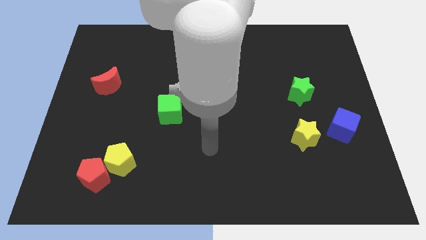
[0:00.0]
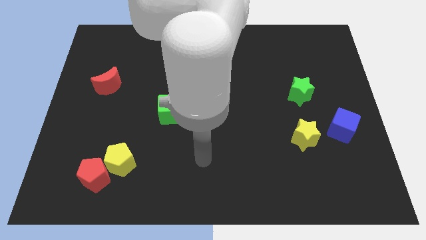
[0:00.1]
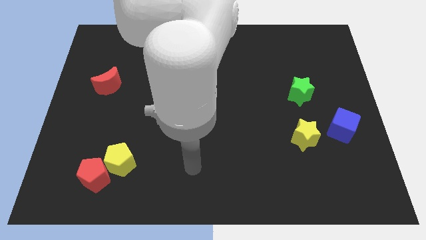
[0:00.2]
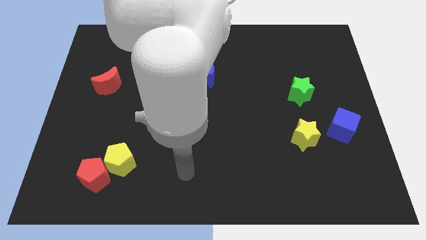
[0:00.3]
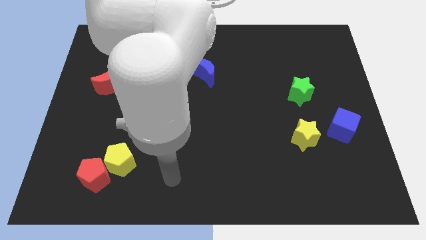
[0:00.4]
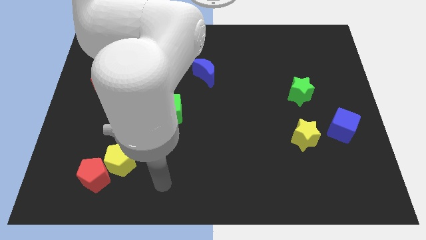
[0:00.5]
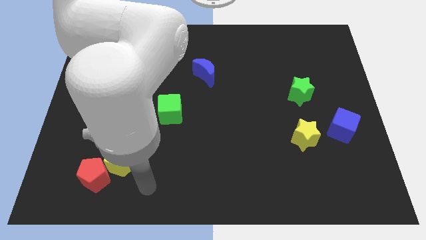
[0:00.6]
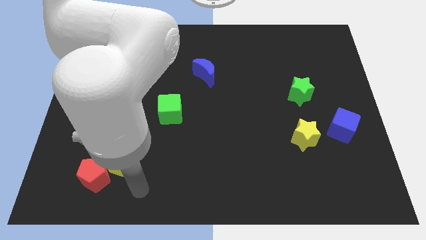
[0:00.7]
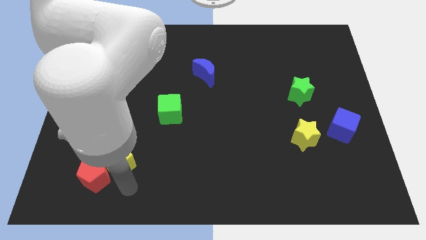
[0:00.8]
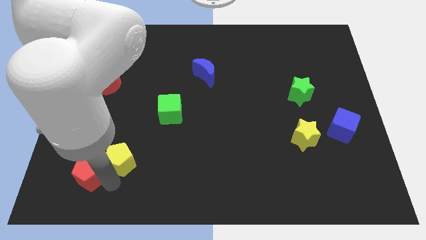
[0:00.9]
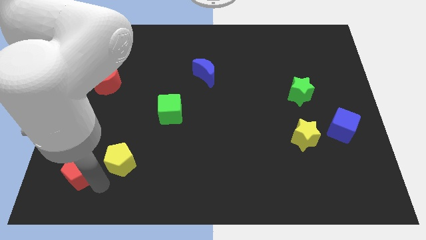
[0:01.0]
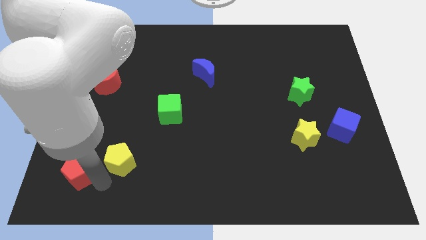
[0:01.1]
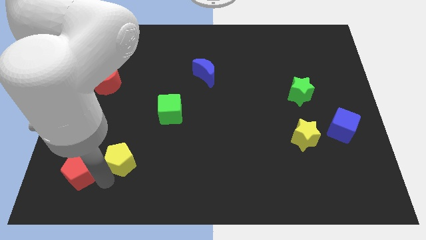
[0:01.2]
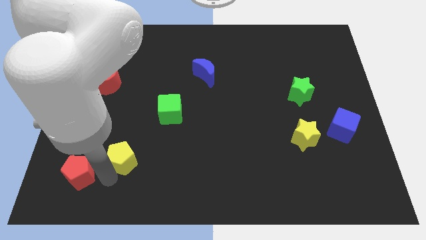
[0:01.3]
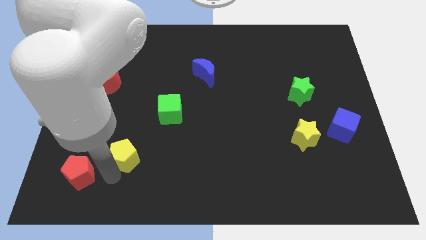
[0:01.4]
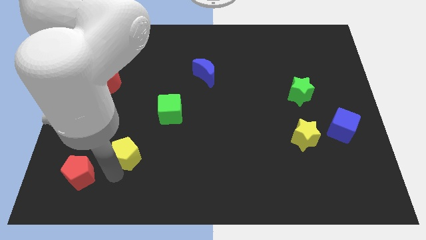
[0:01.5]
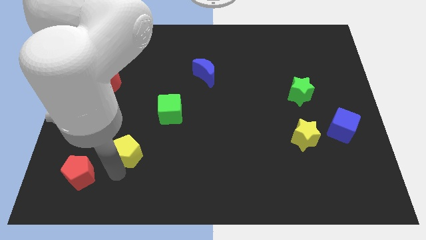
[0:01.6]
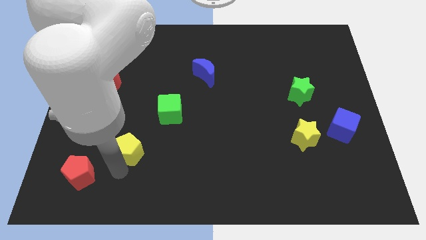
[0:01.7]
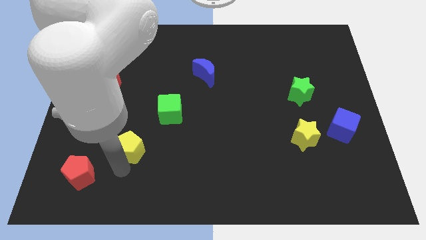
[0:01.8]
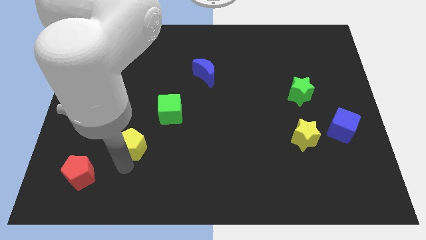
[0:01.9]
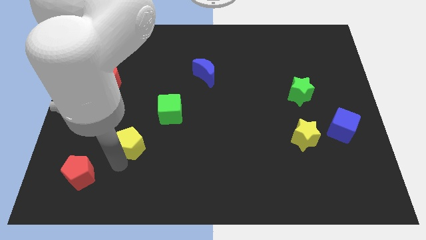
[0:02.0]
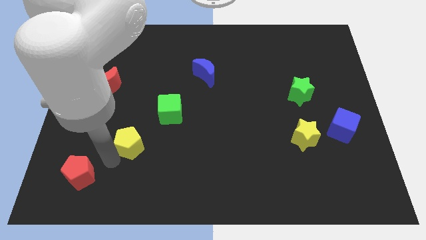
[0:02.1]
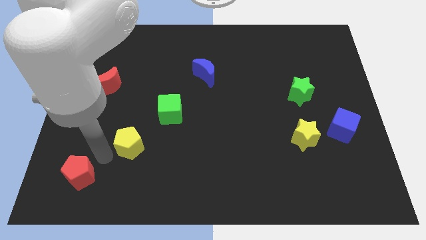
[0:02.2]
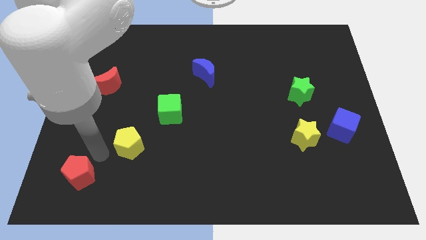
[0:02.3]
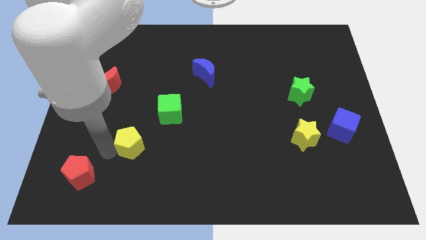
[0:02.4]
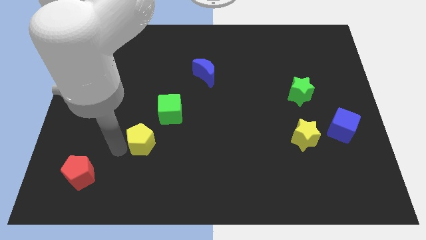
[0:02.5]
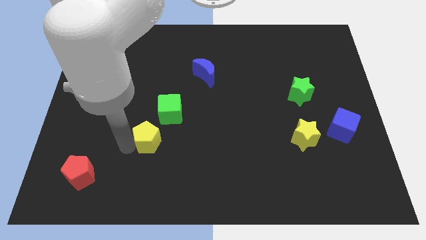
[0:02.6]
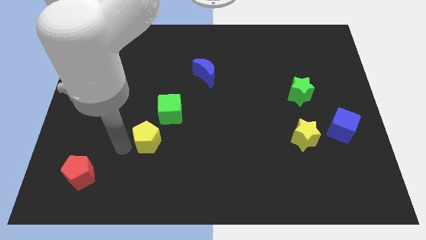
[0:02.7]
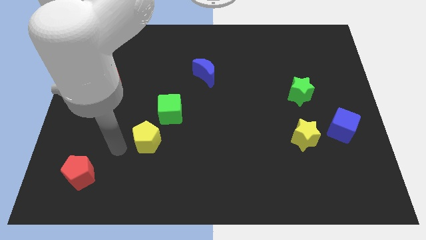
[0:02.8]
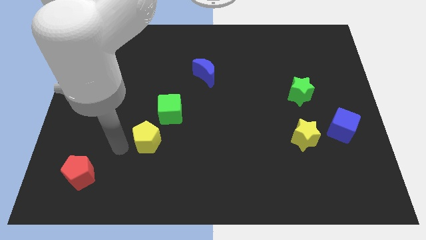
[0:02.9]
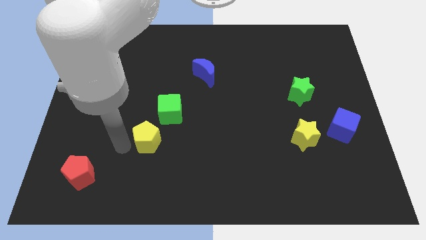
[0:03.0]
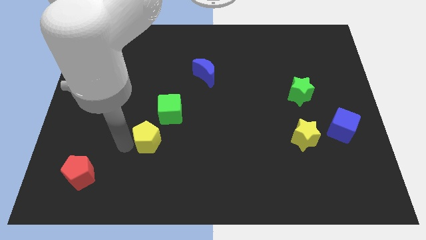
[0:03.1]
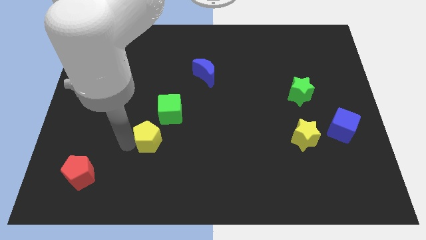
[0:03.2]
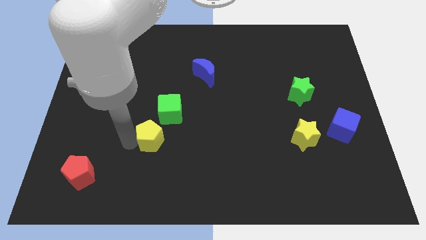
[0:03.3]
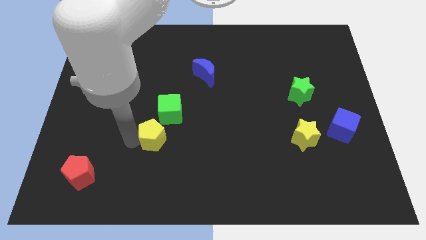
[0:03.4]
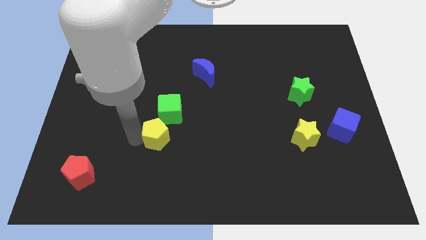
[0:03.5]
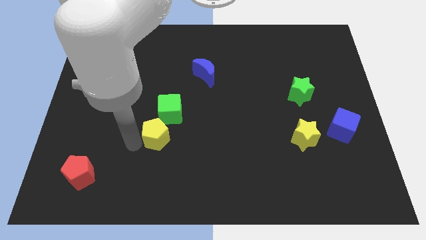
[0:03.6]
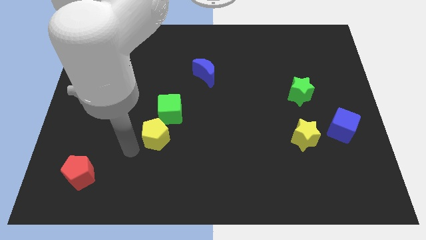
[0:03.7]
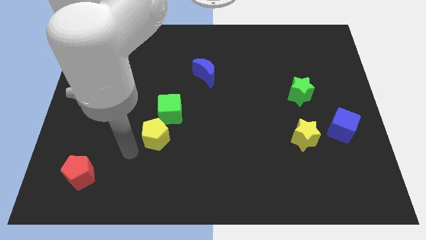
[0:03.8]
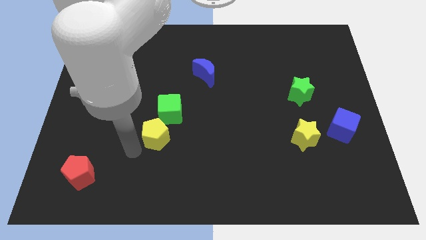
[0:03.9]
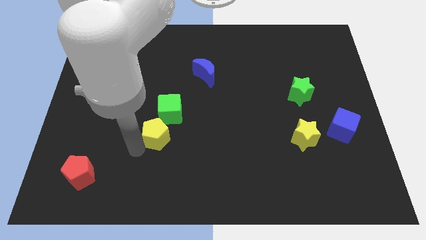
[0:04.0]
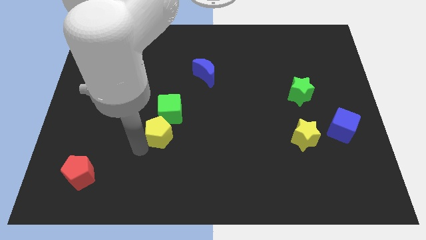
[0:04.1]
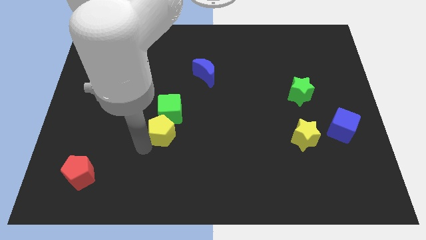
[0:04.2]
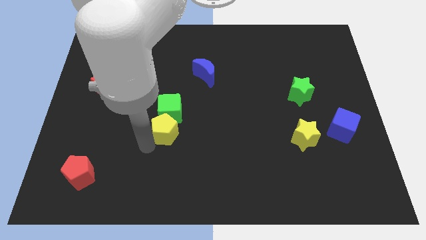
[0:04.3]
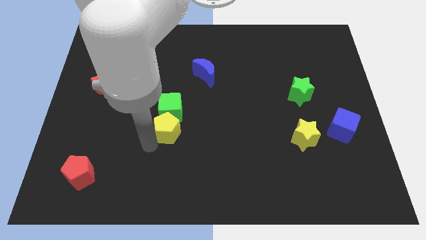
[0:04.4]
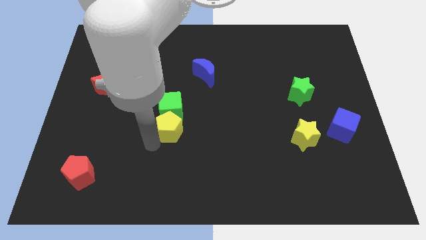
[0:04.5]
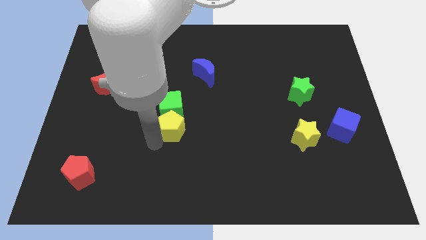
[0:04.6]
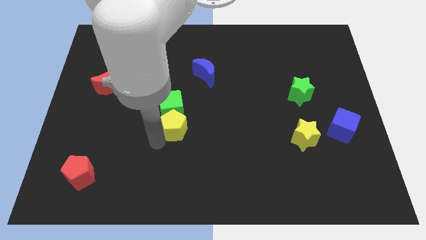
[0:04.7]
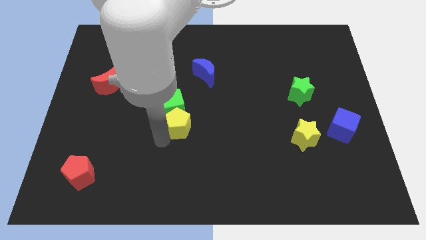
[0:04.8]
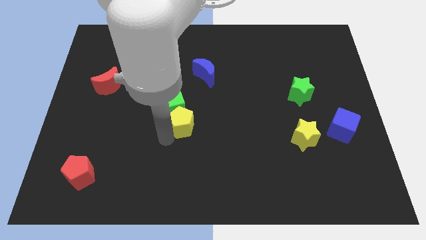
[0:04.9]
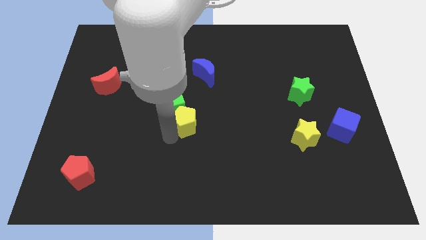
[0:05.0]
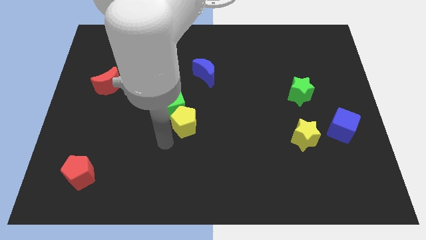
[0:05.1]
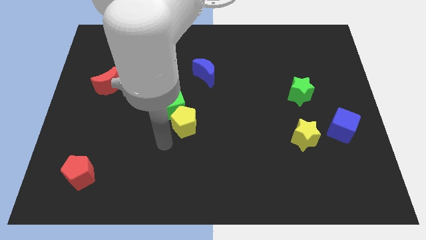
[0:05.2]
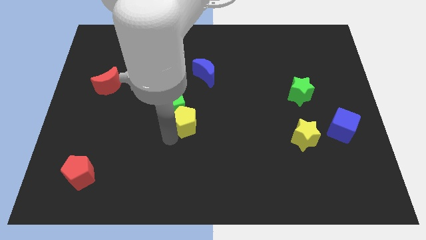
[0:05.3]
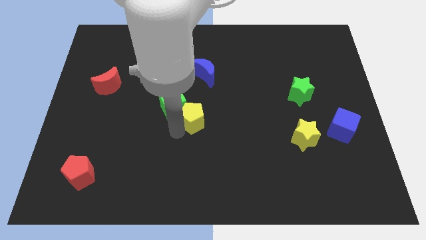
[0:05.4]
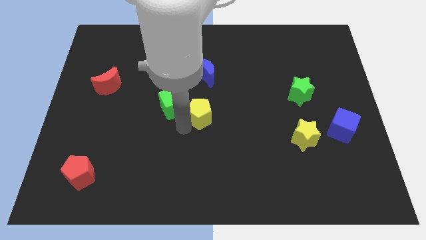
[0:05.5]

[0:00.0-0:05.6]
move the yellow pentagon upwards and to the right

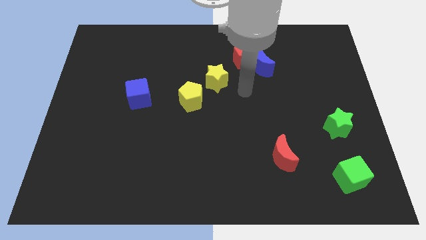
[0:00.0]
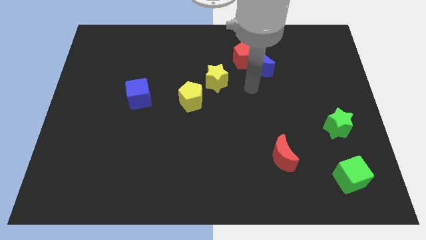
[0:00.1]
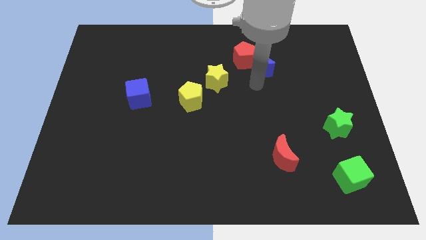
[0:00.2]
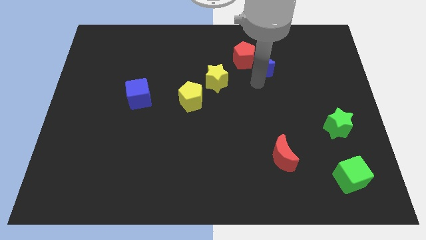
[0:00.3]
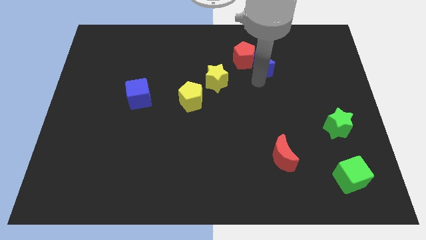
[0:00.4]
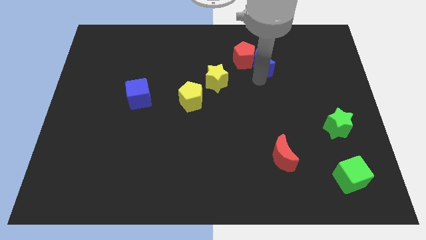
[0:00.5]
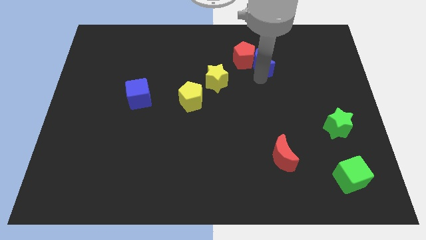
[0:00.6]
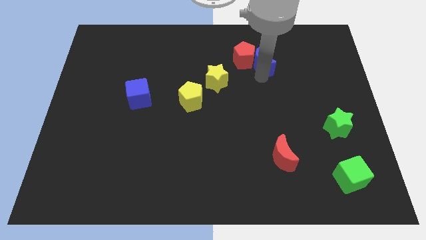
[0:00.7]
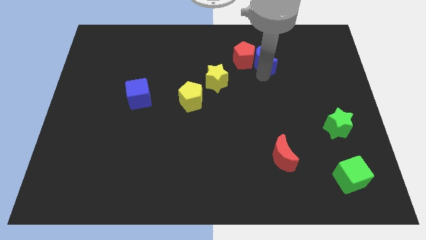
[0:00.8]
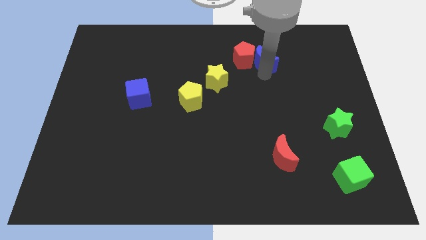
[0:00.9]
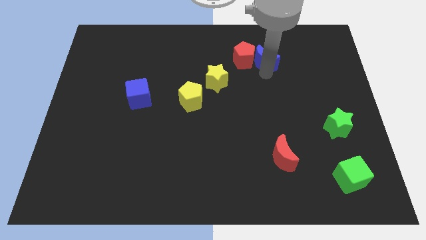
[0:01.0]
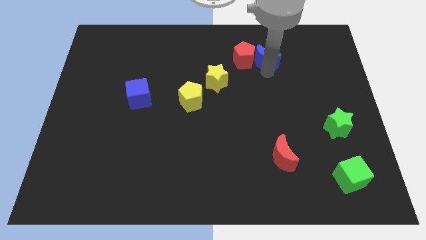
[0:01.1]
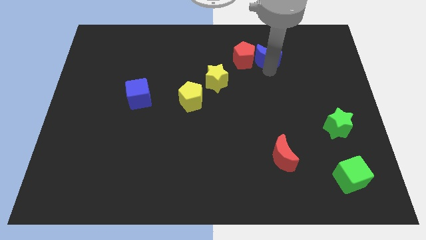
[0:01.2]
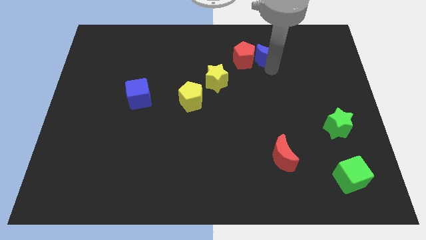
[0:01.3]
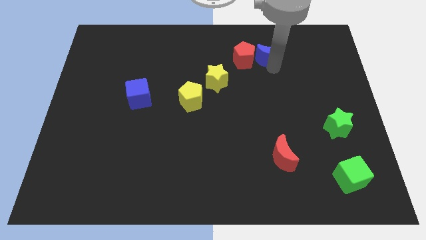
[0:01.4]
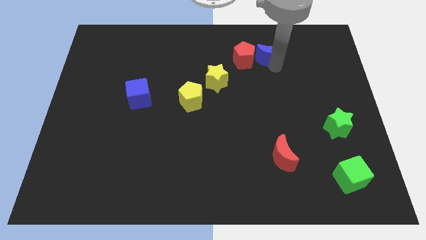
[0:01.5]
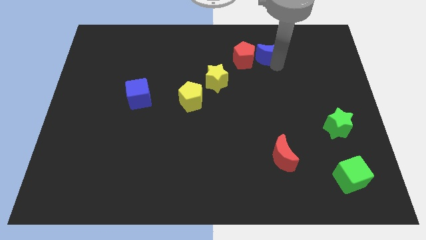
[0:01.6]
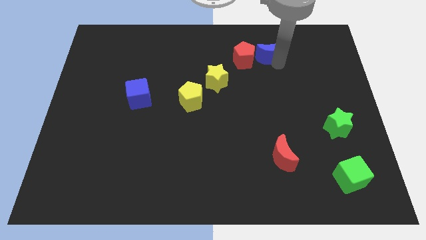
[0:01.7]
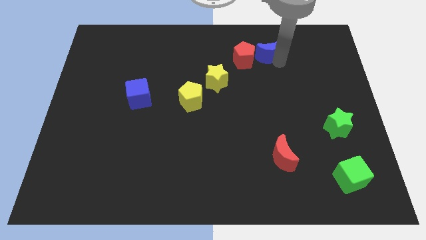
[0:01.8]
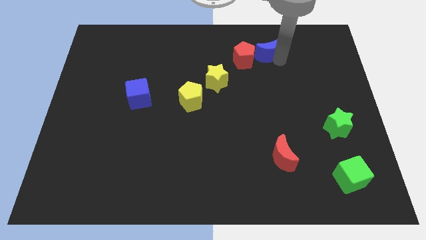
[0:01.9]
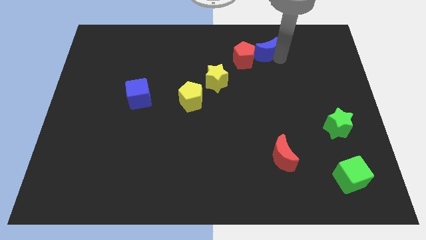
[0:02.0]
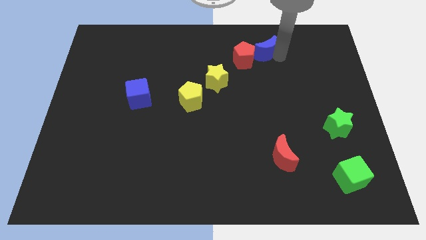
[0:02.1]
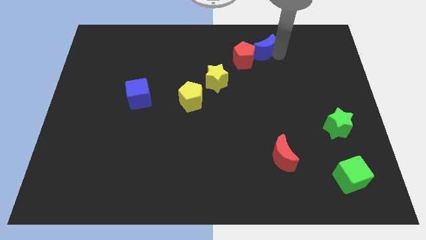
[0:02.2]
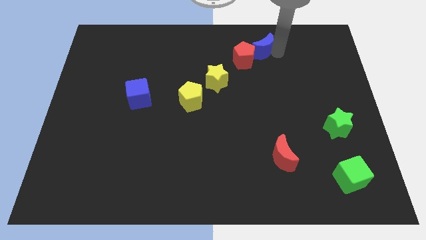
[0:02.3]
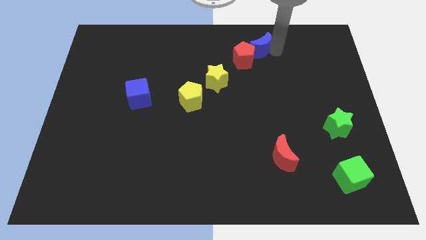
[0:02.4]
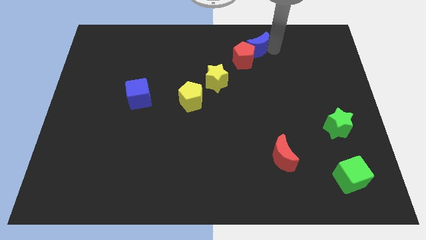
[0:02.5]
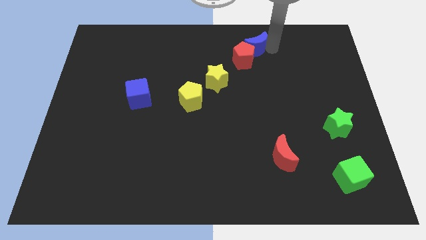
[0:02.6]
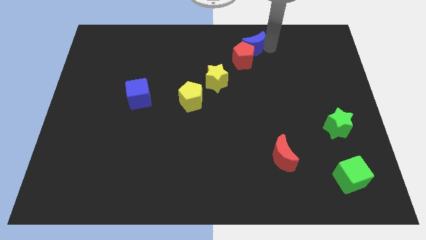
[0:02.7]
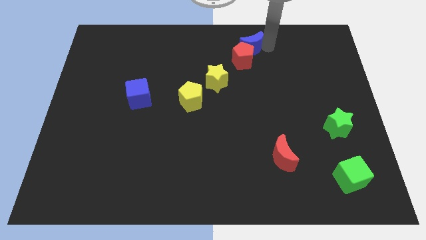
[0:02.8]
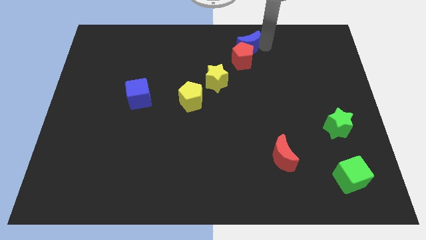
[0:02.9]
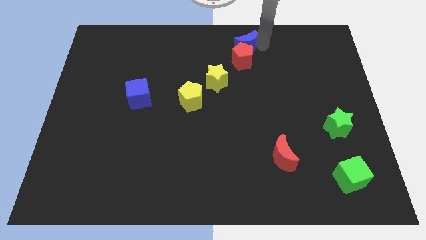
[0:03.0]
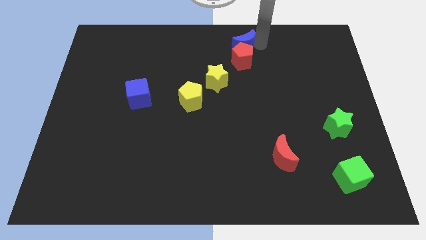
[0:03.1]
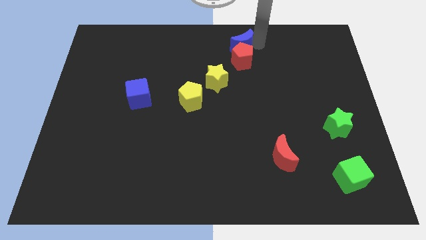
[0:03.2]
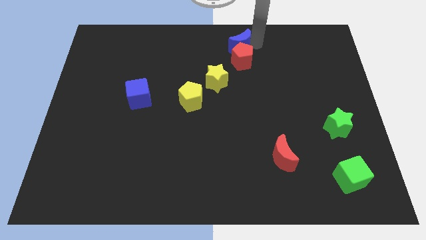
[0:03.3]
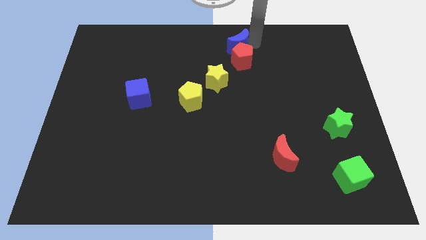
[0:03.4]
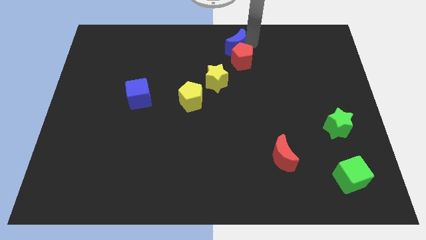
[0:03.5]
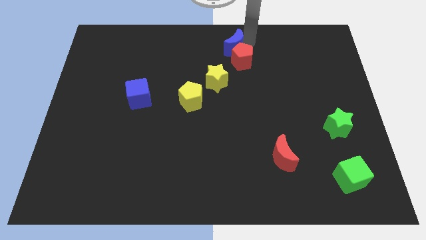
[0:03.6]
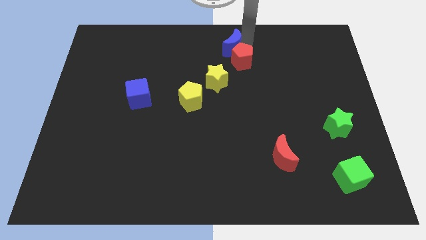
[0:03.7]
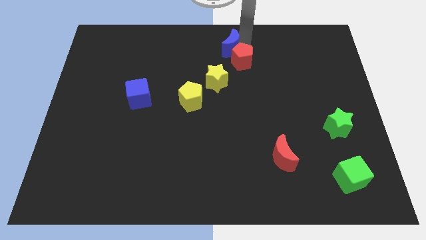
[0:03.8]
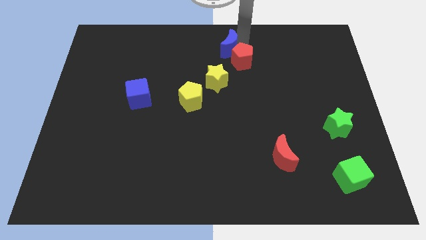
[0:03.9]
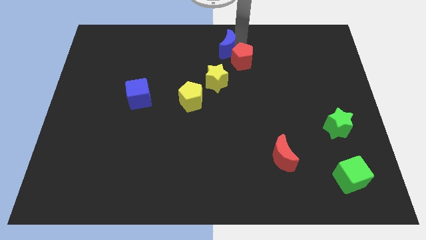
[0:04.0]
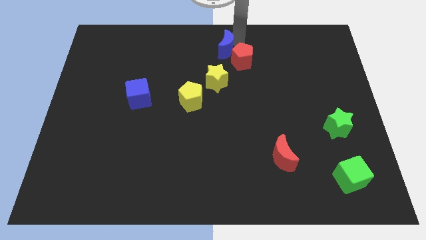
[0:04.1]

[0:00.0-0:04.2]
push the blue moon to the left a bit
